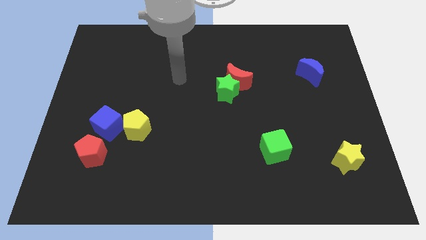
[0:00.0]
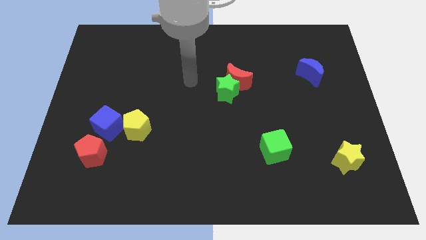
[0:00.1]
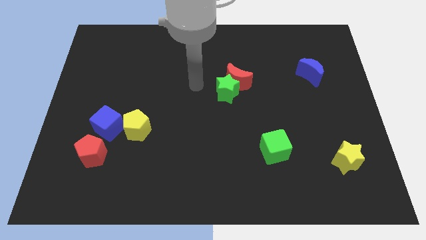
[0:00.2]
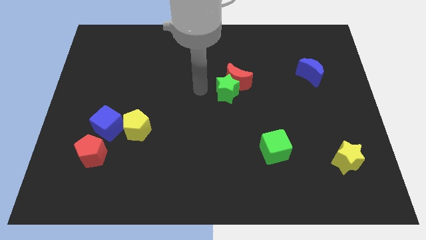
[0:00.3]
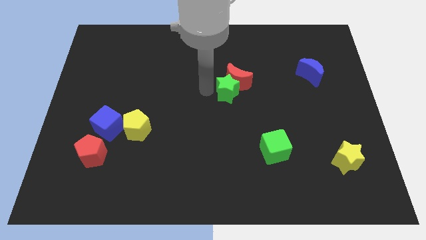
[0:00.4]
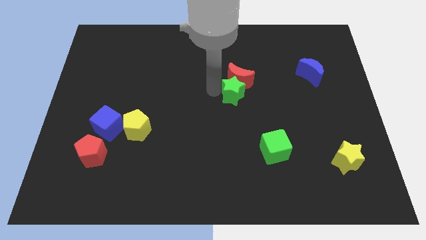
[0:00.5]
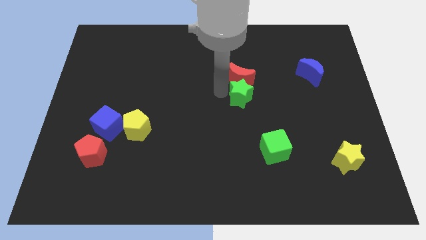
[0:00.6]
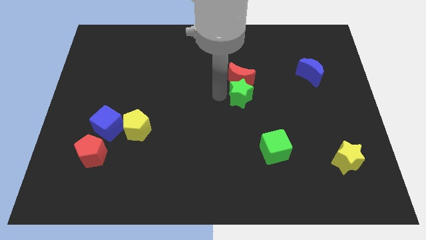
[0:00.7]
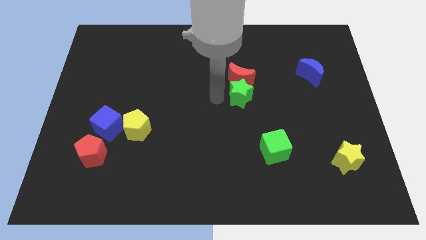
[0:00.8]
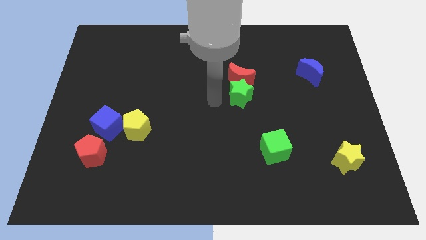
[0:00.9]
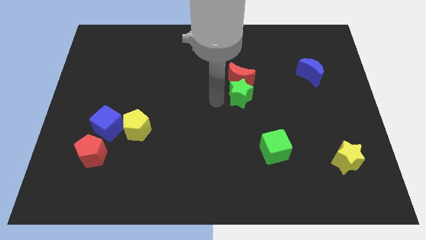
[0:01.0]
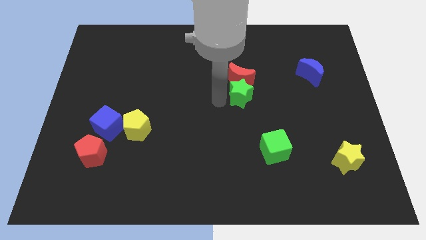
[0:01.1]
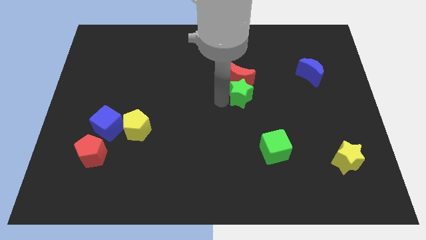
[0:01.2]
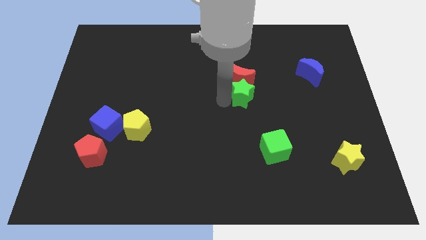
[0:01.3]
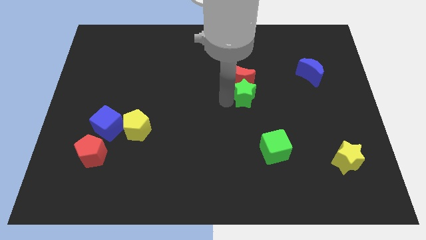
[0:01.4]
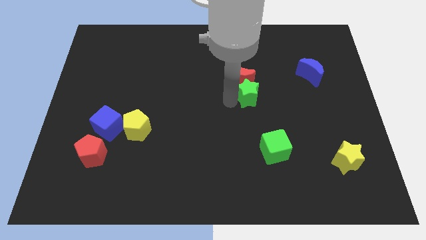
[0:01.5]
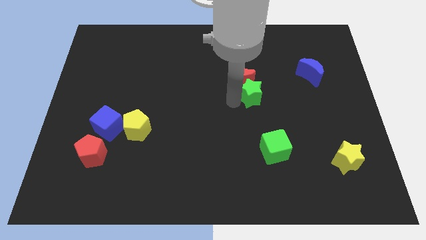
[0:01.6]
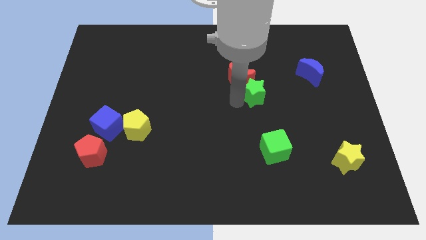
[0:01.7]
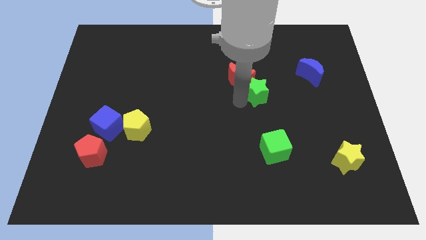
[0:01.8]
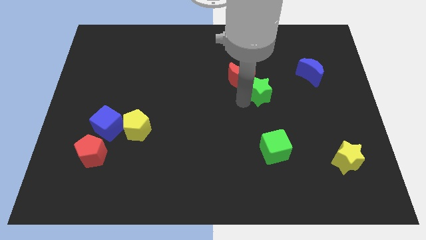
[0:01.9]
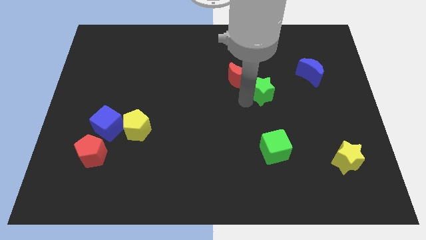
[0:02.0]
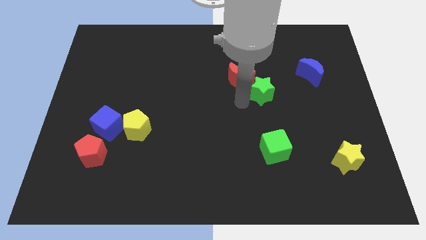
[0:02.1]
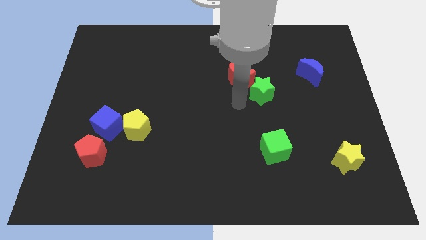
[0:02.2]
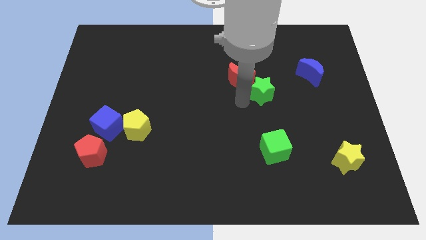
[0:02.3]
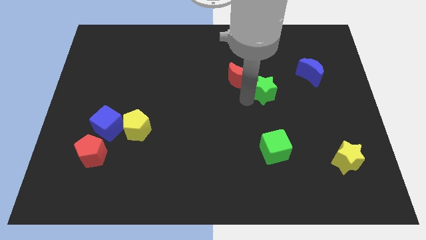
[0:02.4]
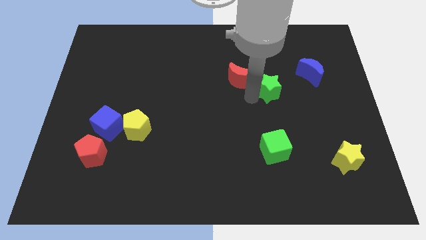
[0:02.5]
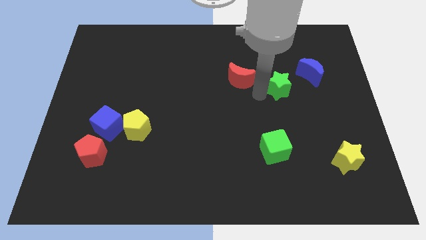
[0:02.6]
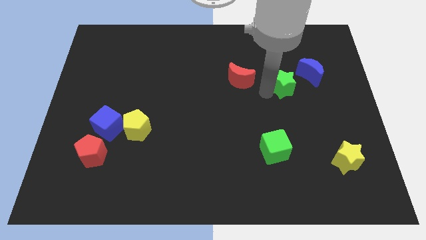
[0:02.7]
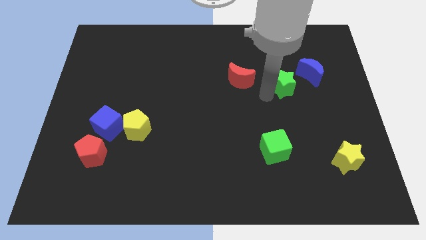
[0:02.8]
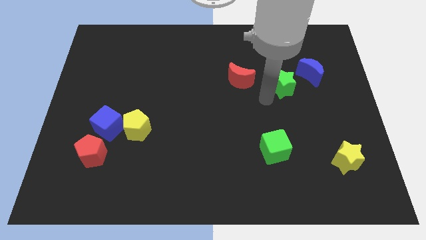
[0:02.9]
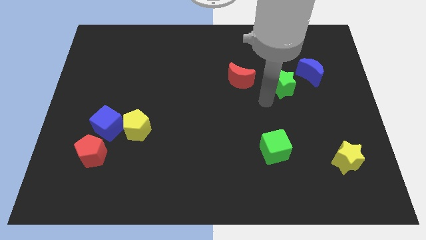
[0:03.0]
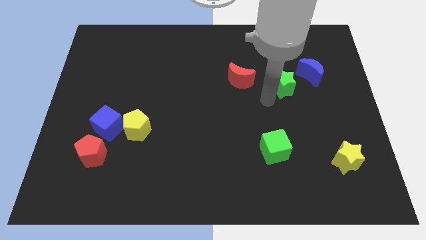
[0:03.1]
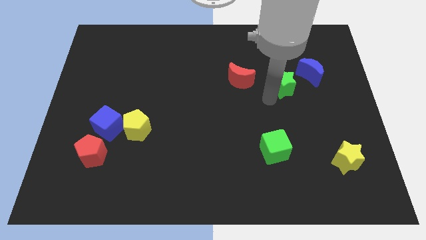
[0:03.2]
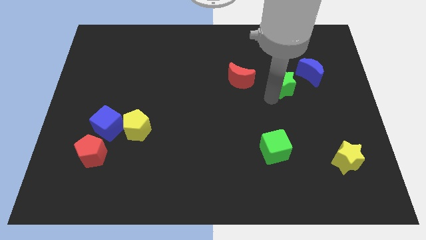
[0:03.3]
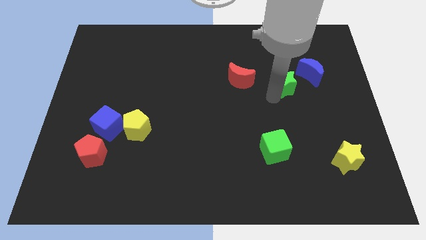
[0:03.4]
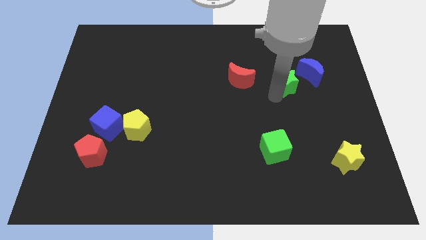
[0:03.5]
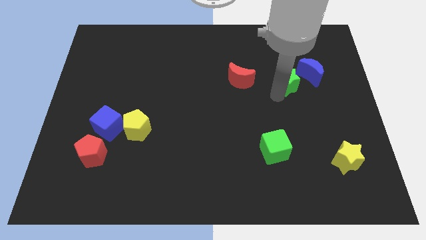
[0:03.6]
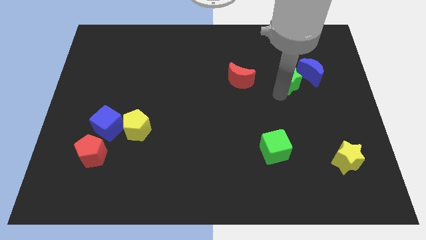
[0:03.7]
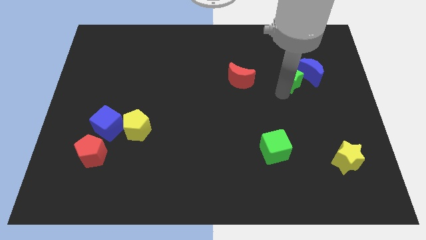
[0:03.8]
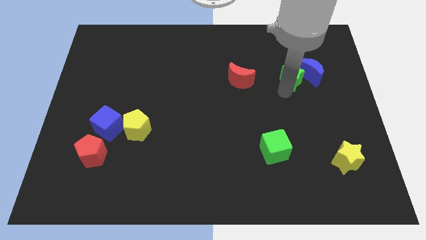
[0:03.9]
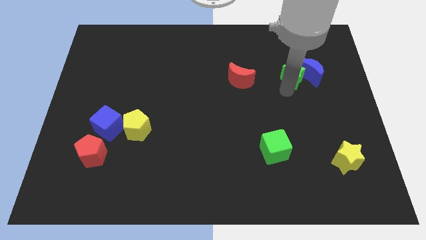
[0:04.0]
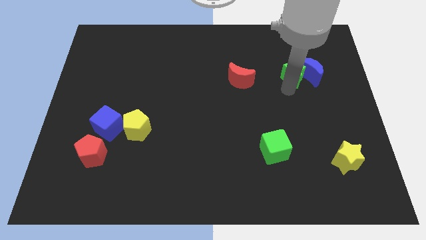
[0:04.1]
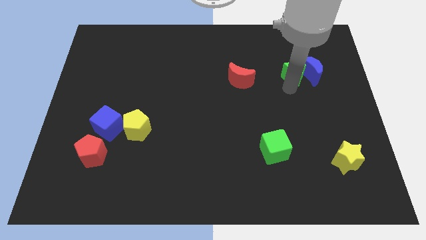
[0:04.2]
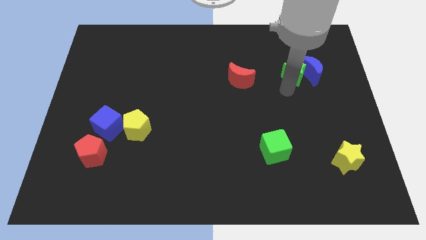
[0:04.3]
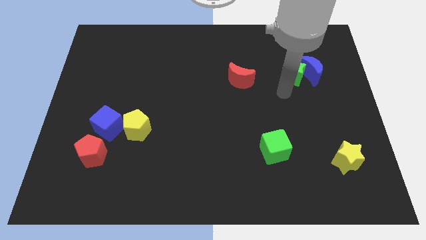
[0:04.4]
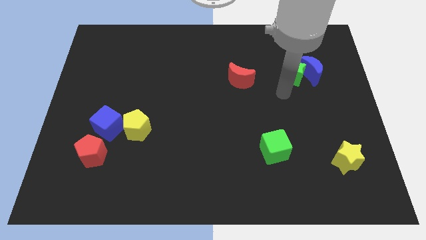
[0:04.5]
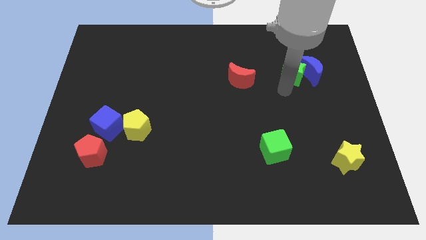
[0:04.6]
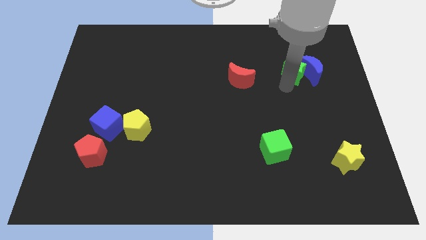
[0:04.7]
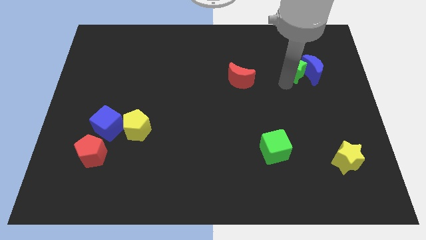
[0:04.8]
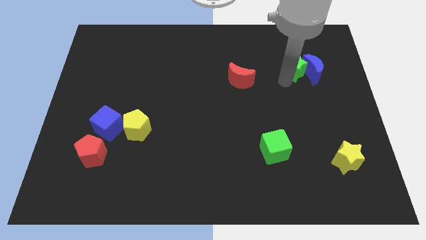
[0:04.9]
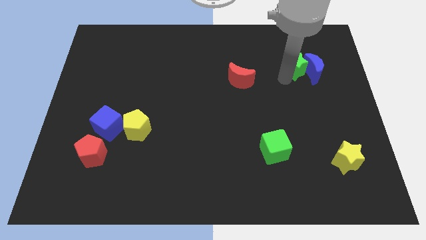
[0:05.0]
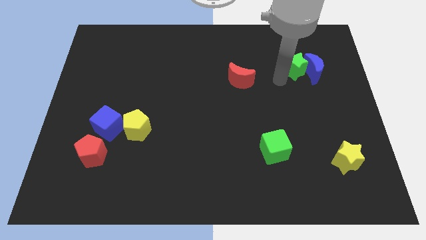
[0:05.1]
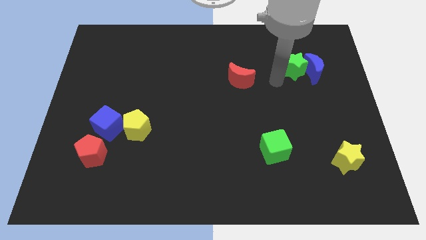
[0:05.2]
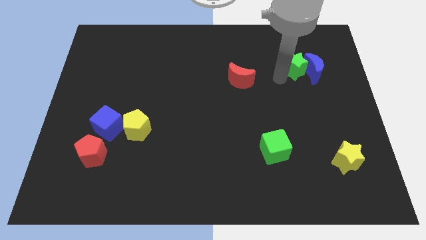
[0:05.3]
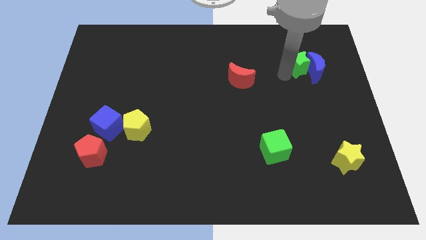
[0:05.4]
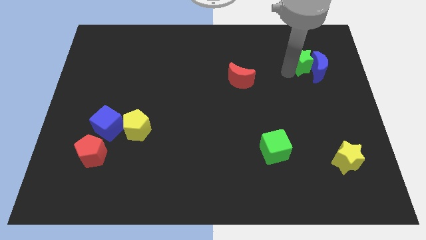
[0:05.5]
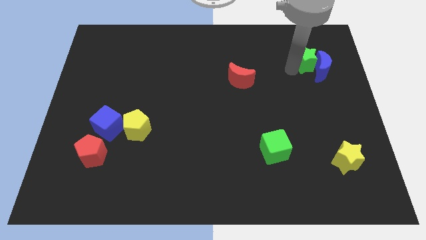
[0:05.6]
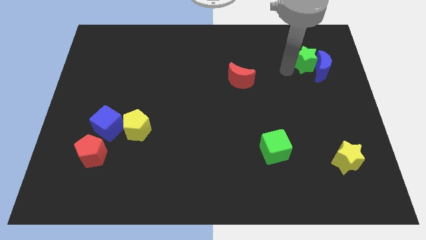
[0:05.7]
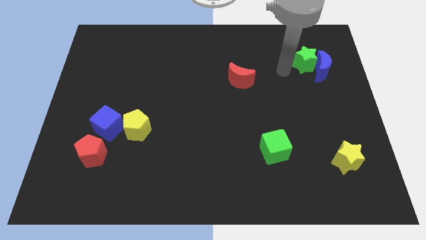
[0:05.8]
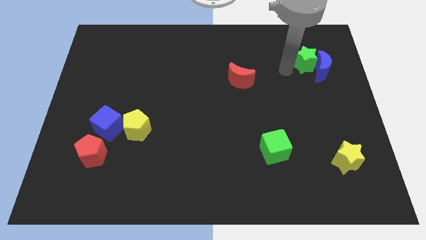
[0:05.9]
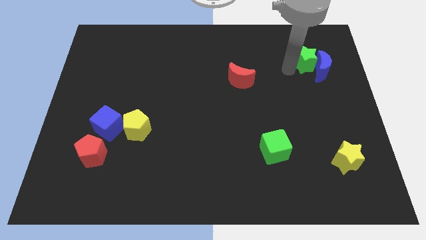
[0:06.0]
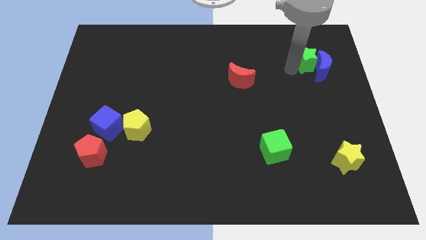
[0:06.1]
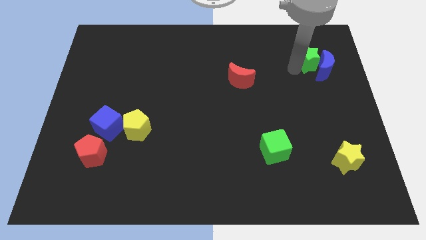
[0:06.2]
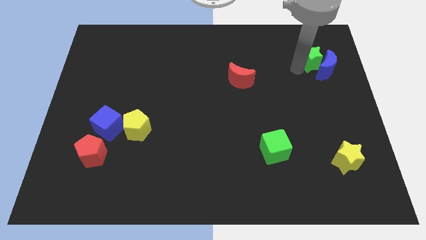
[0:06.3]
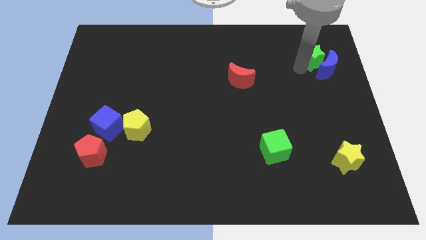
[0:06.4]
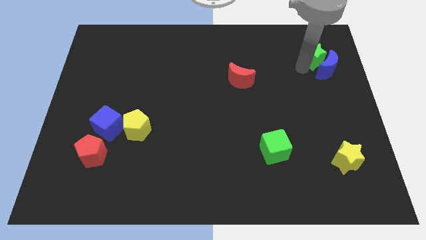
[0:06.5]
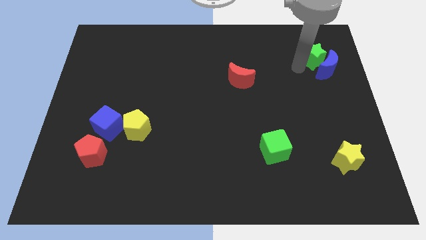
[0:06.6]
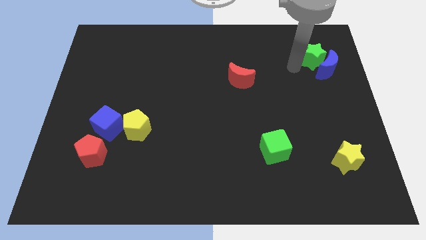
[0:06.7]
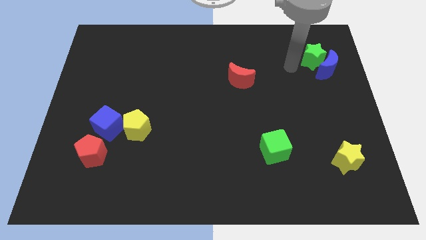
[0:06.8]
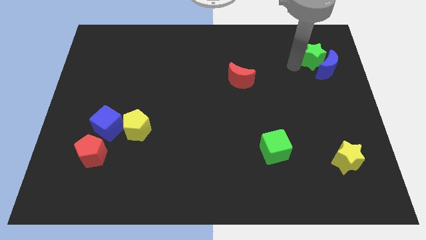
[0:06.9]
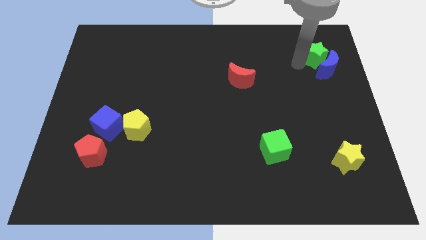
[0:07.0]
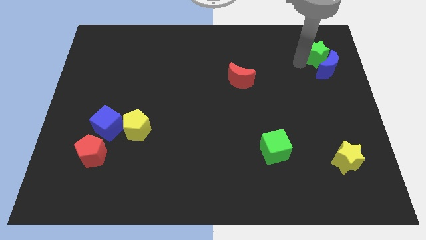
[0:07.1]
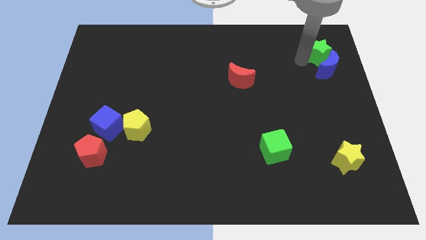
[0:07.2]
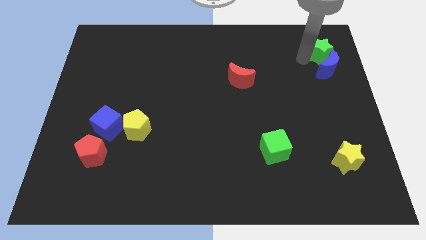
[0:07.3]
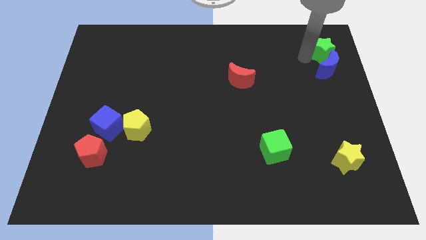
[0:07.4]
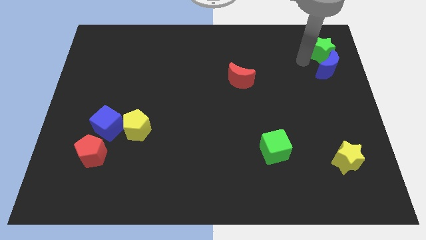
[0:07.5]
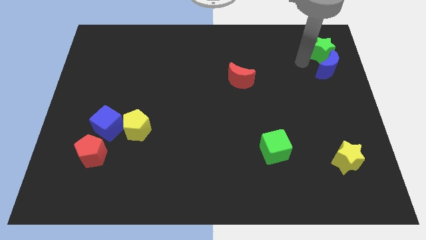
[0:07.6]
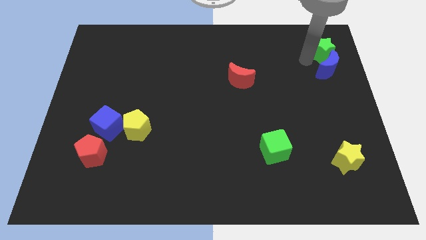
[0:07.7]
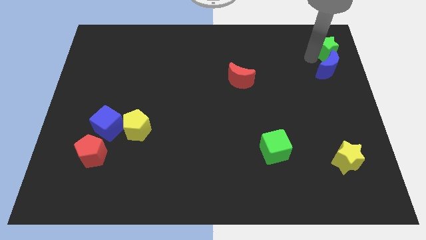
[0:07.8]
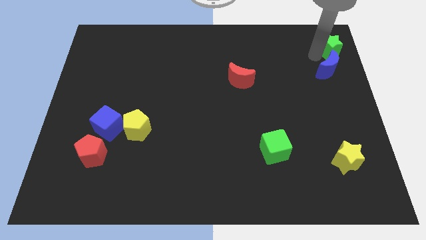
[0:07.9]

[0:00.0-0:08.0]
push the green star to the upper right corner
